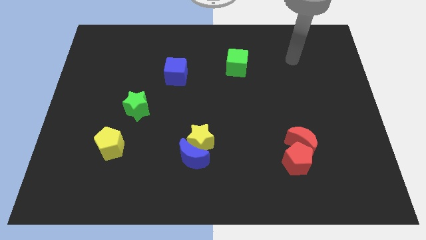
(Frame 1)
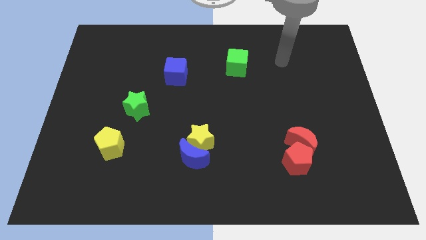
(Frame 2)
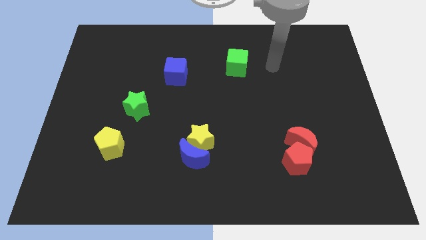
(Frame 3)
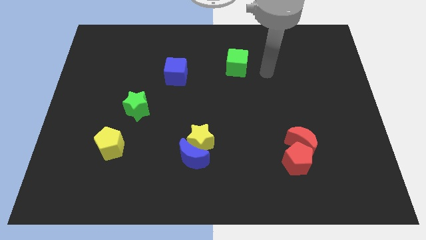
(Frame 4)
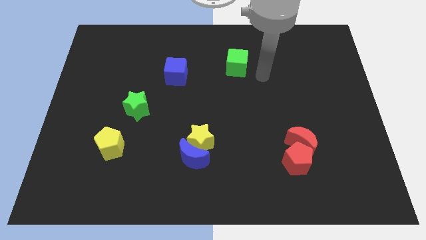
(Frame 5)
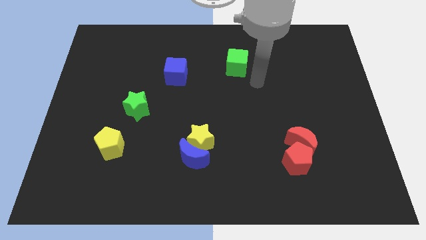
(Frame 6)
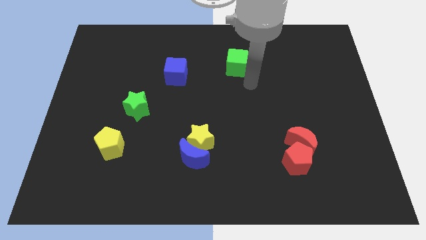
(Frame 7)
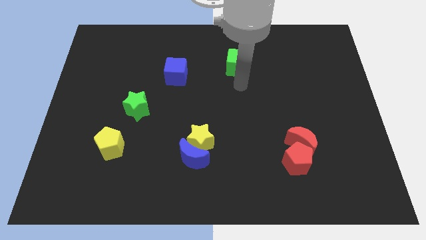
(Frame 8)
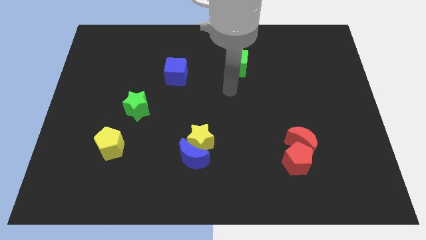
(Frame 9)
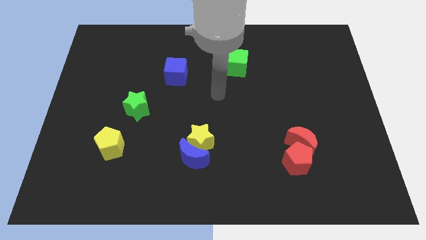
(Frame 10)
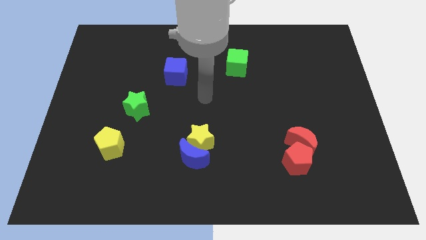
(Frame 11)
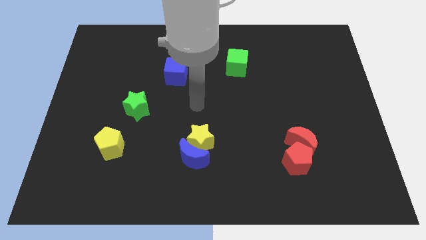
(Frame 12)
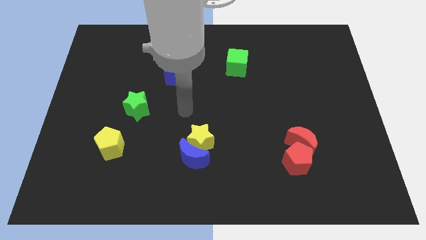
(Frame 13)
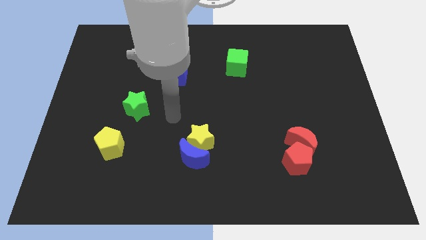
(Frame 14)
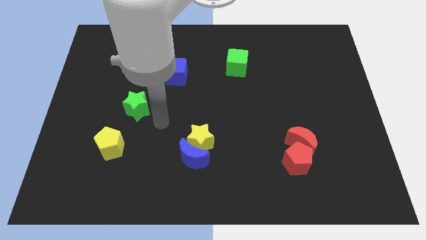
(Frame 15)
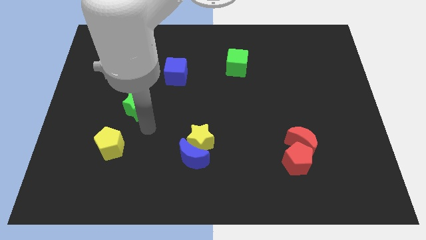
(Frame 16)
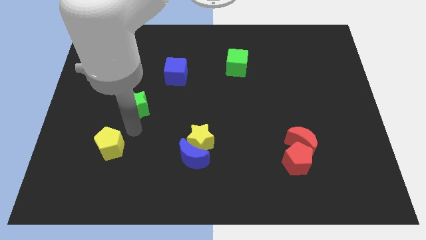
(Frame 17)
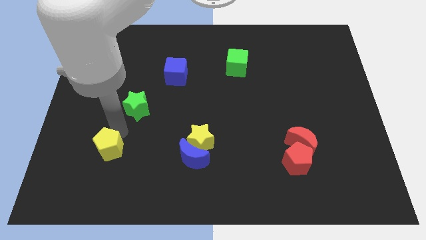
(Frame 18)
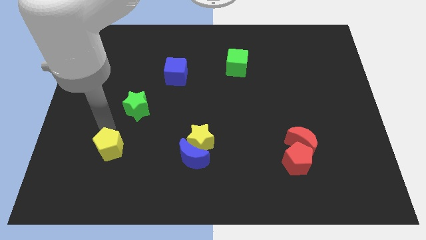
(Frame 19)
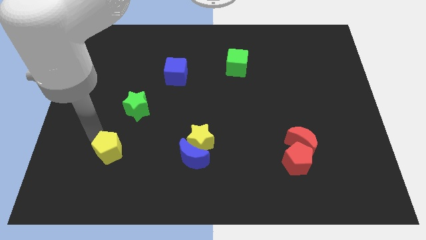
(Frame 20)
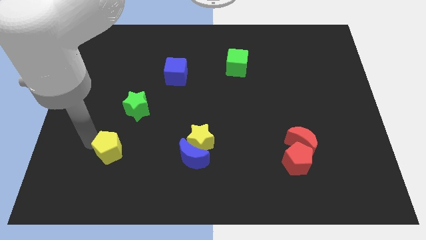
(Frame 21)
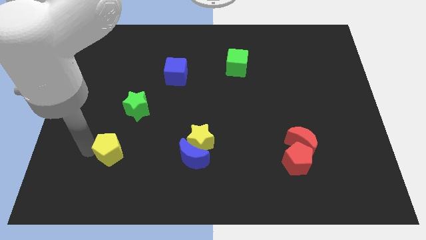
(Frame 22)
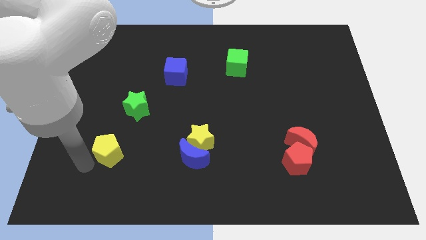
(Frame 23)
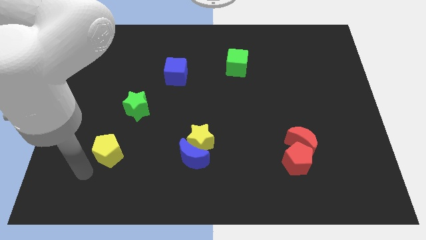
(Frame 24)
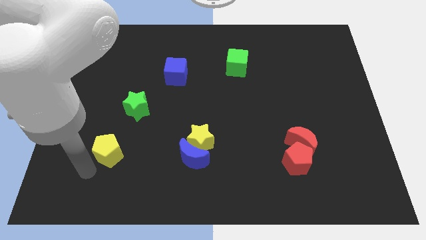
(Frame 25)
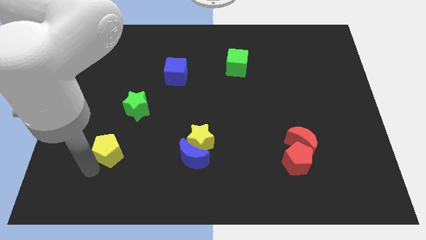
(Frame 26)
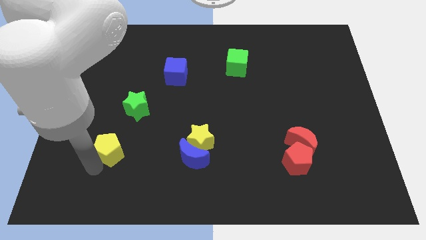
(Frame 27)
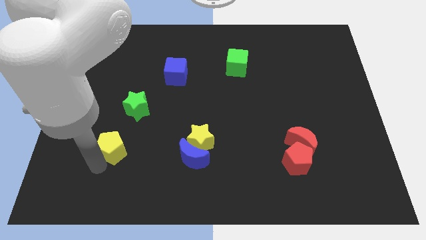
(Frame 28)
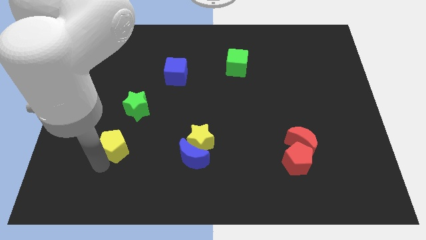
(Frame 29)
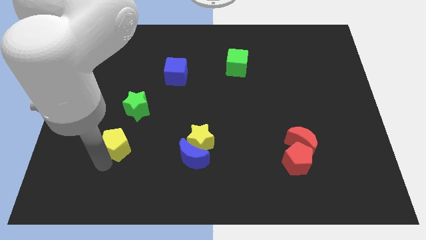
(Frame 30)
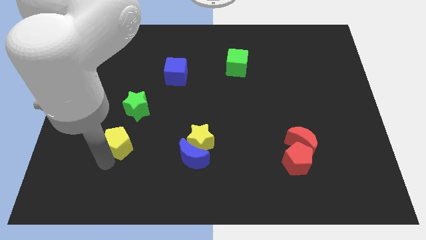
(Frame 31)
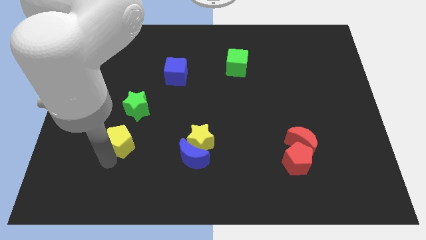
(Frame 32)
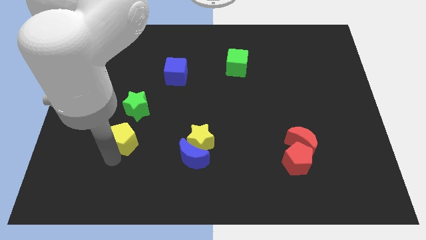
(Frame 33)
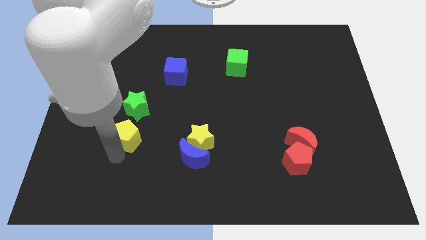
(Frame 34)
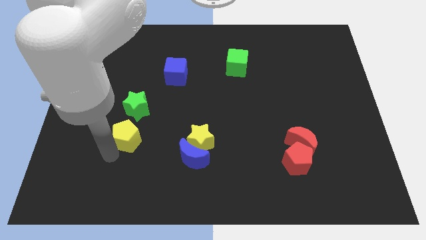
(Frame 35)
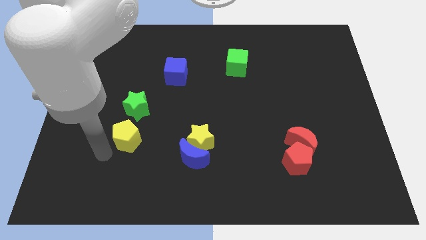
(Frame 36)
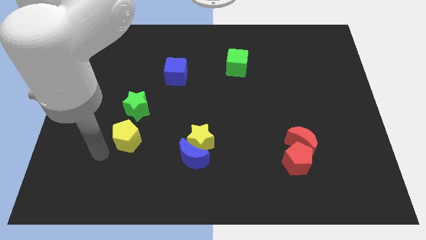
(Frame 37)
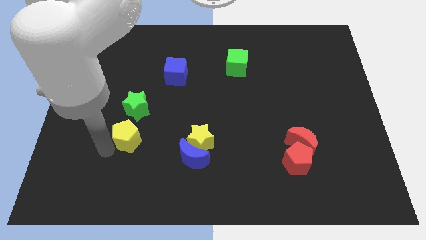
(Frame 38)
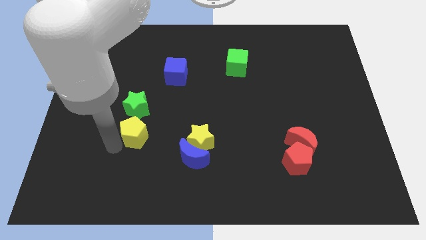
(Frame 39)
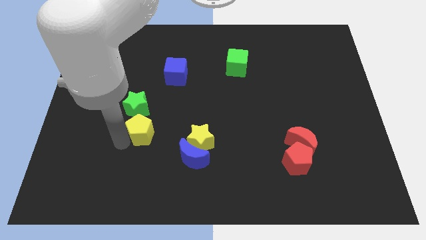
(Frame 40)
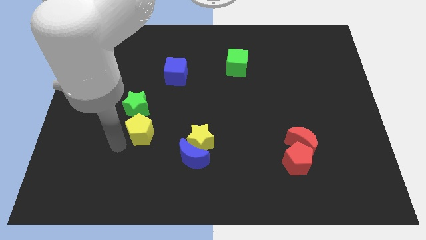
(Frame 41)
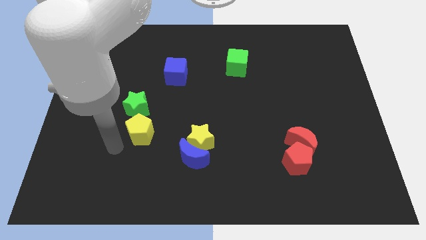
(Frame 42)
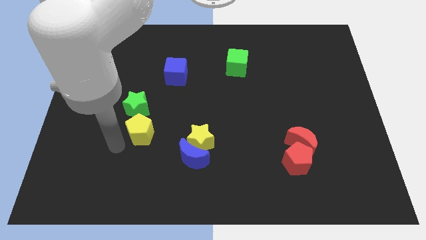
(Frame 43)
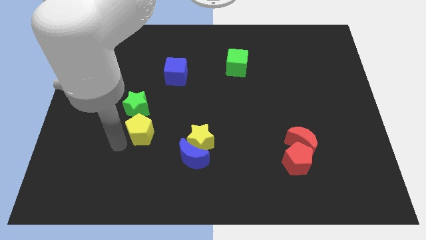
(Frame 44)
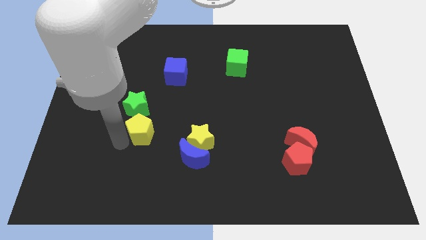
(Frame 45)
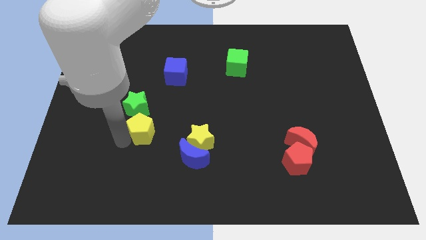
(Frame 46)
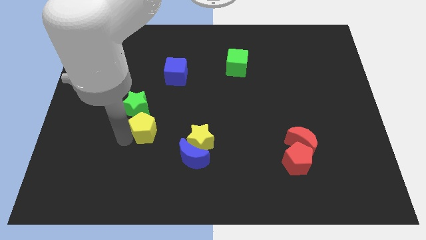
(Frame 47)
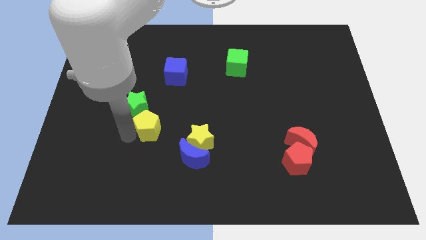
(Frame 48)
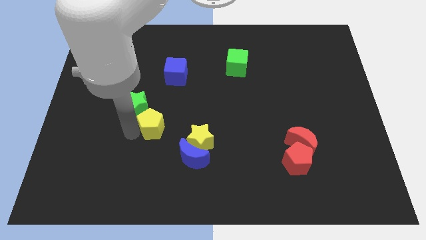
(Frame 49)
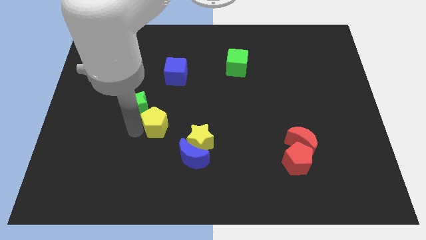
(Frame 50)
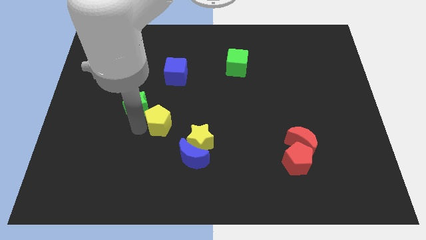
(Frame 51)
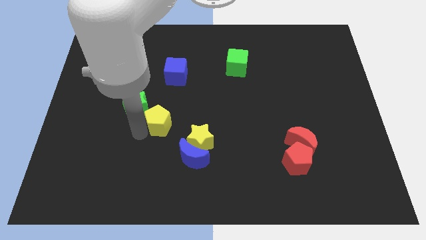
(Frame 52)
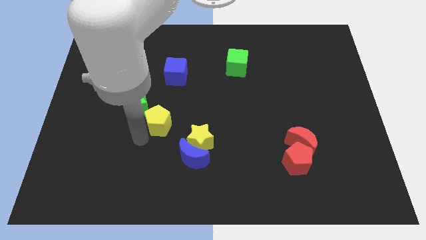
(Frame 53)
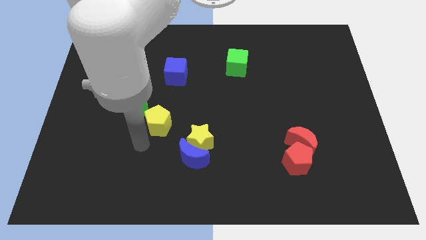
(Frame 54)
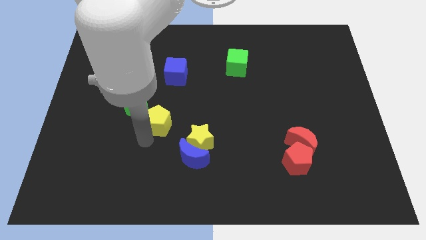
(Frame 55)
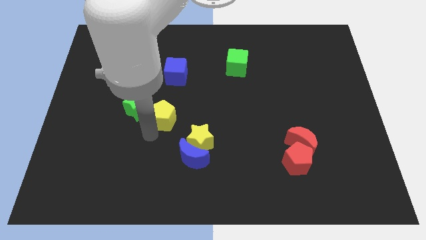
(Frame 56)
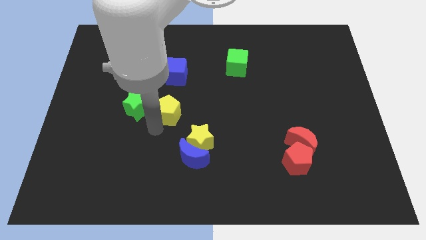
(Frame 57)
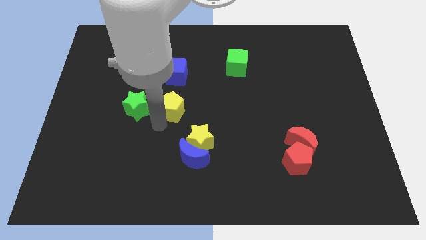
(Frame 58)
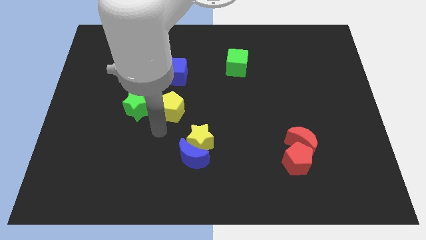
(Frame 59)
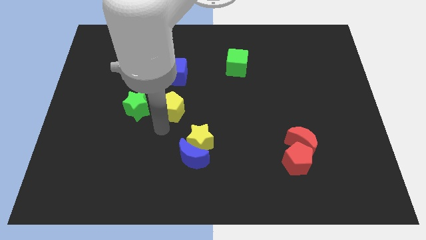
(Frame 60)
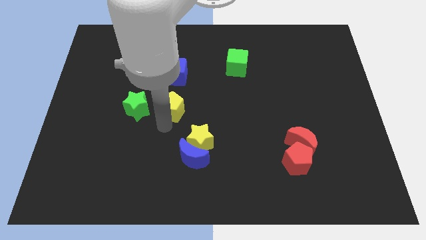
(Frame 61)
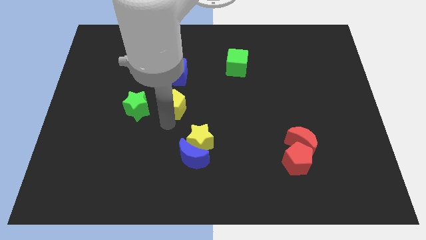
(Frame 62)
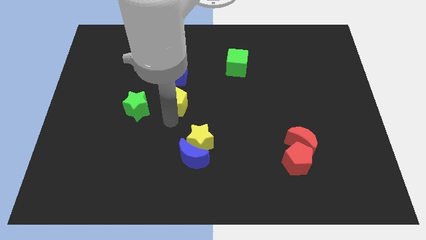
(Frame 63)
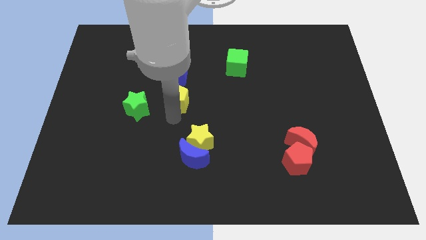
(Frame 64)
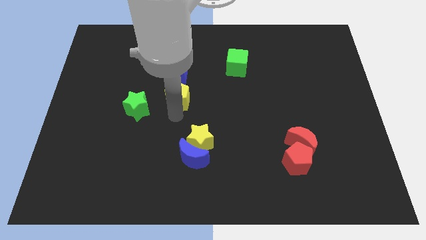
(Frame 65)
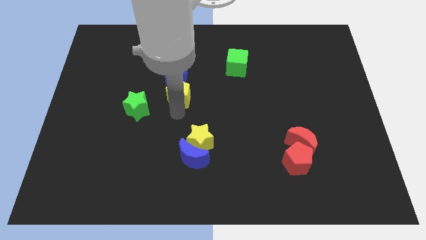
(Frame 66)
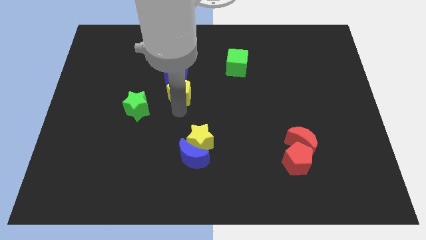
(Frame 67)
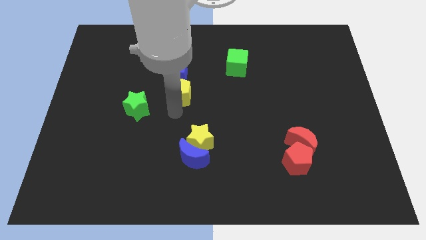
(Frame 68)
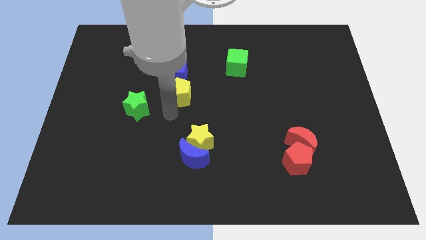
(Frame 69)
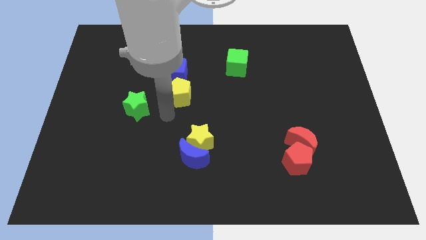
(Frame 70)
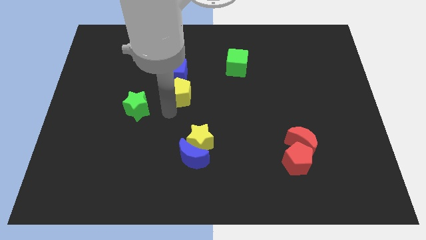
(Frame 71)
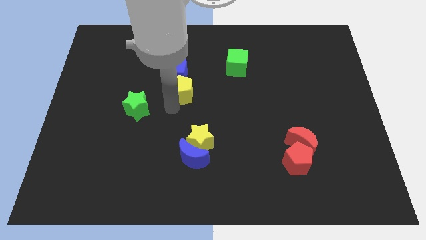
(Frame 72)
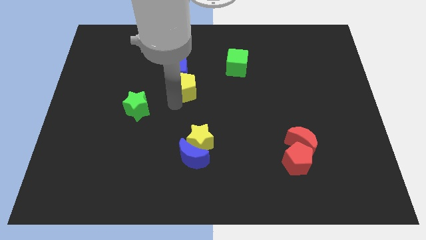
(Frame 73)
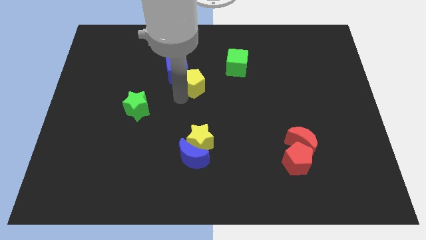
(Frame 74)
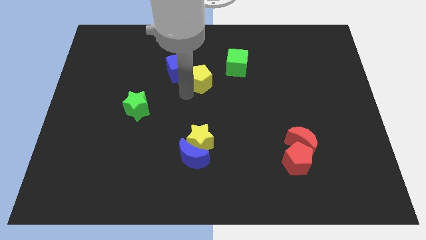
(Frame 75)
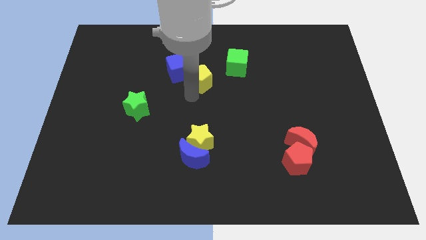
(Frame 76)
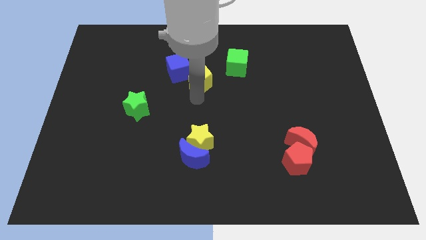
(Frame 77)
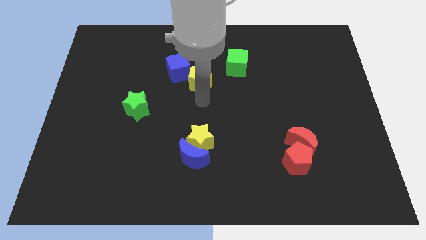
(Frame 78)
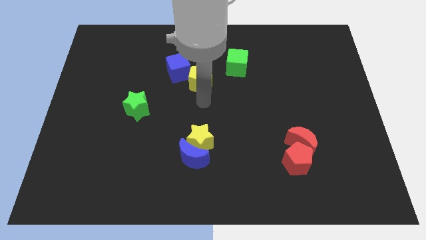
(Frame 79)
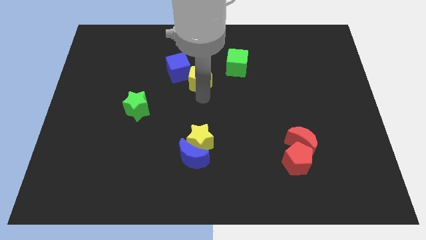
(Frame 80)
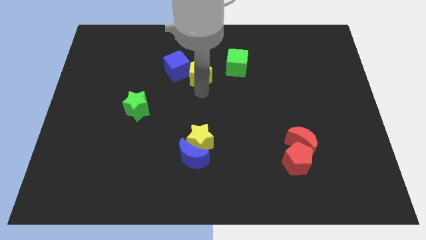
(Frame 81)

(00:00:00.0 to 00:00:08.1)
move the yellow pentagon just left of the green cube
